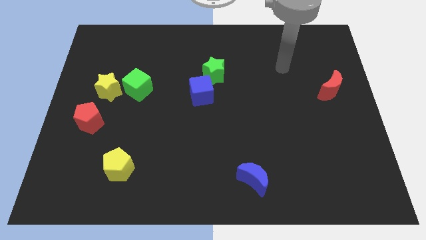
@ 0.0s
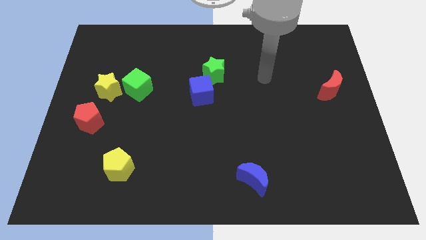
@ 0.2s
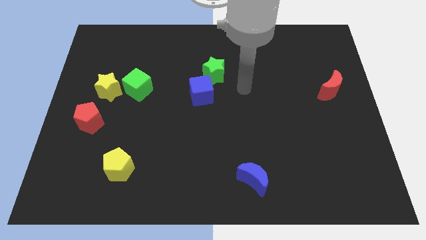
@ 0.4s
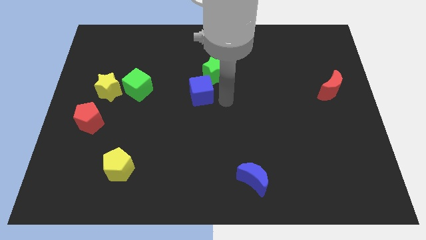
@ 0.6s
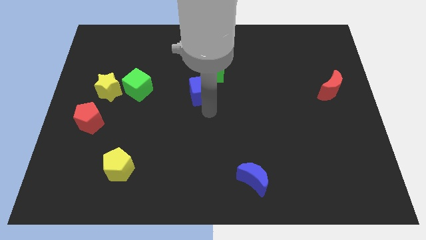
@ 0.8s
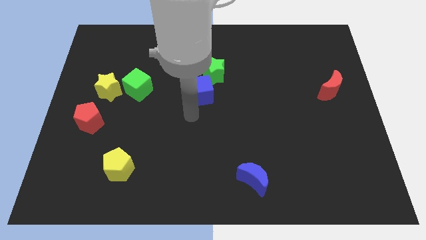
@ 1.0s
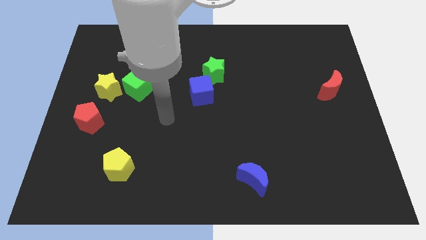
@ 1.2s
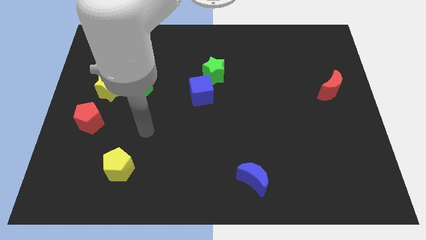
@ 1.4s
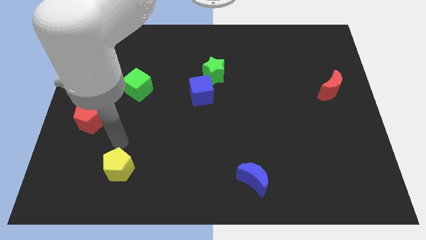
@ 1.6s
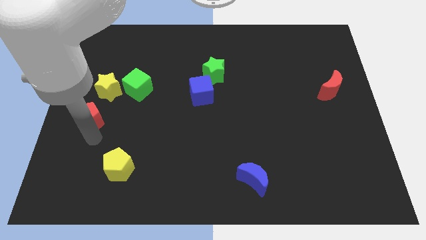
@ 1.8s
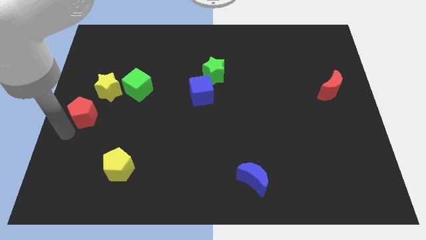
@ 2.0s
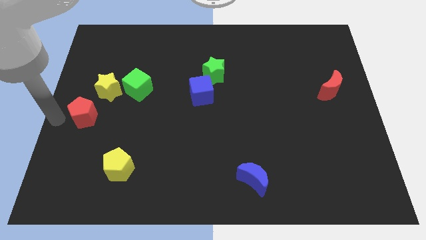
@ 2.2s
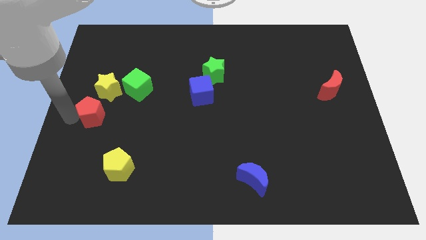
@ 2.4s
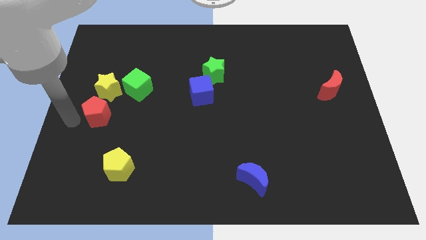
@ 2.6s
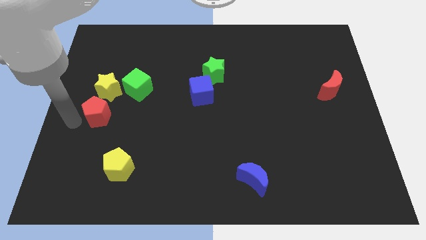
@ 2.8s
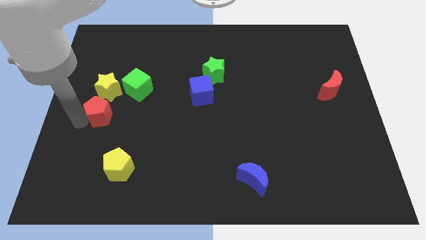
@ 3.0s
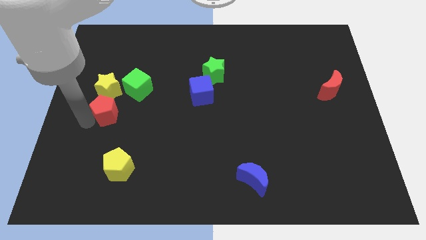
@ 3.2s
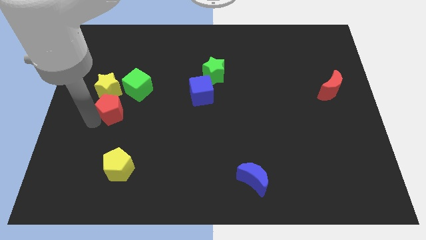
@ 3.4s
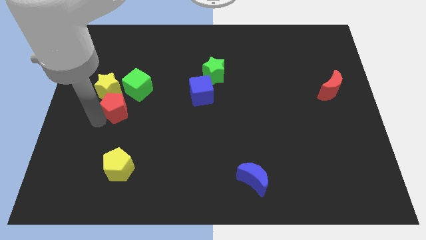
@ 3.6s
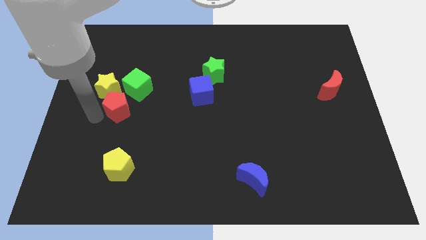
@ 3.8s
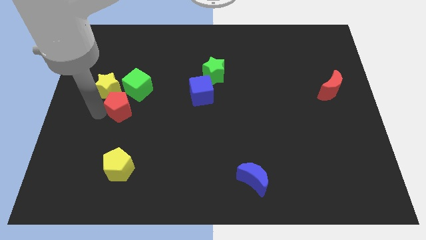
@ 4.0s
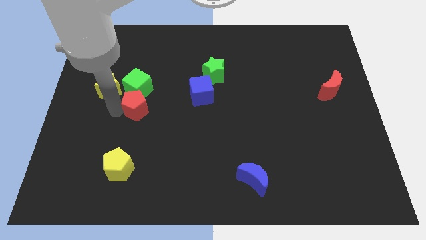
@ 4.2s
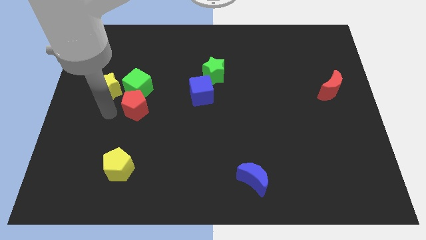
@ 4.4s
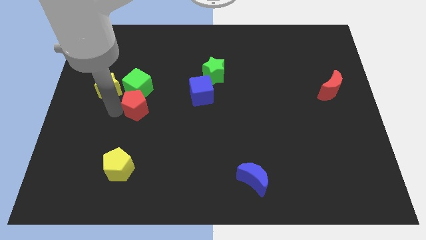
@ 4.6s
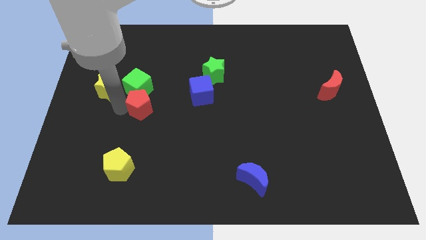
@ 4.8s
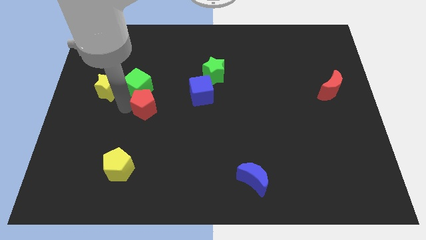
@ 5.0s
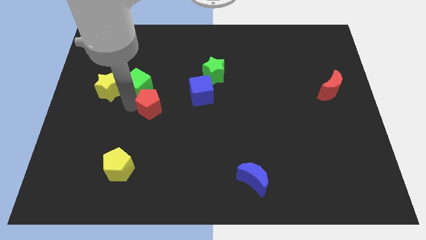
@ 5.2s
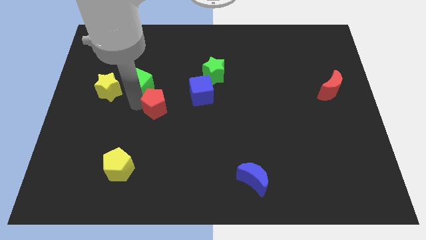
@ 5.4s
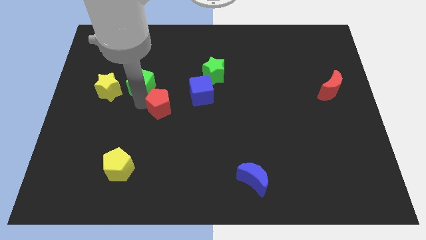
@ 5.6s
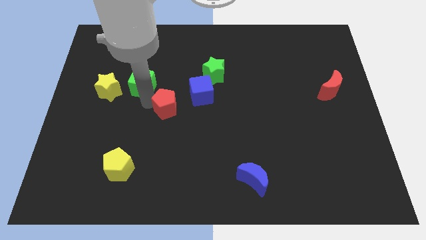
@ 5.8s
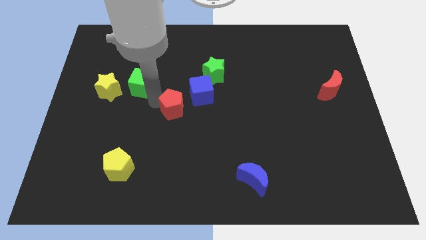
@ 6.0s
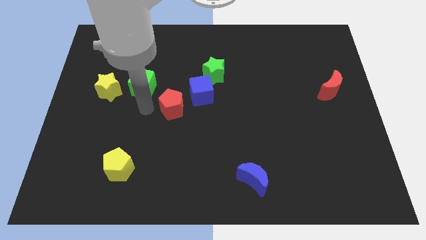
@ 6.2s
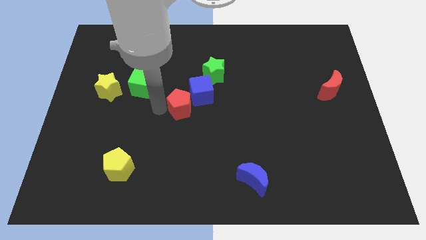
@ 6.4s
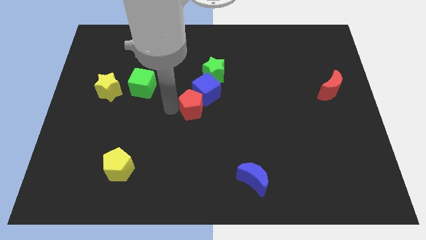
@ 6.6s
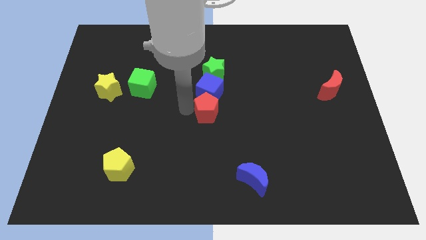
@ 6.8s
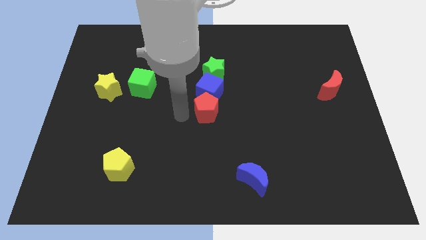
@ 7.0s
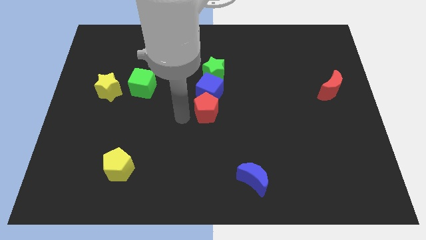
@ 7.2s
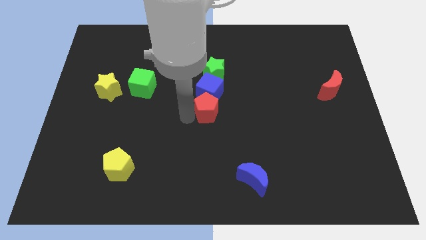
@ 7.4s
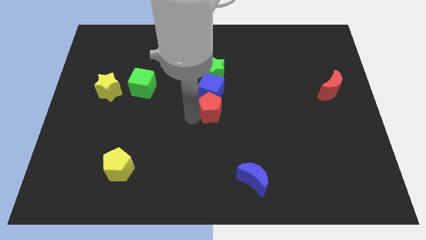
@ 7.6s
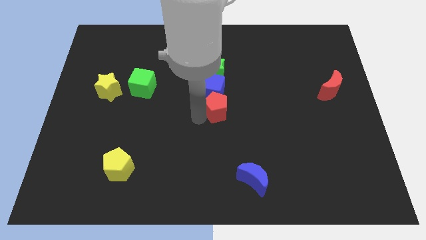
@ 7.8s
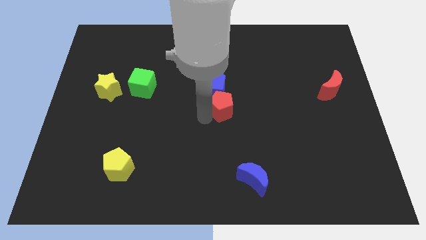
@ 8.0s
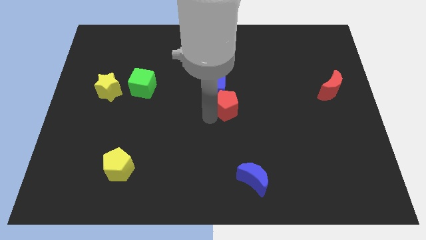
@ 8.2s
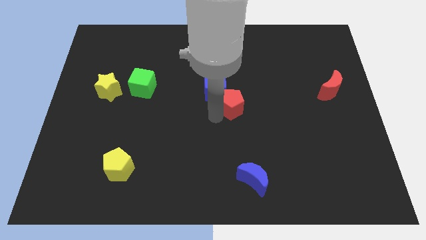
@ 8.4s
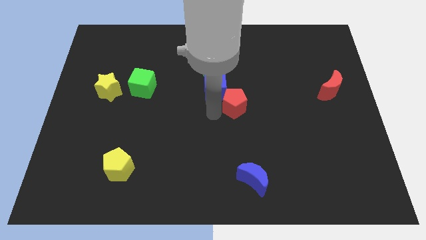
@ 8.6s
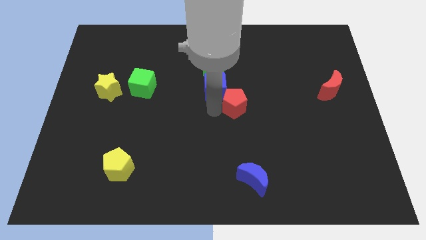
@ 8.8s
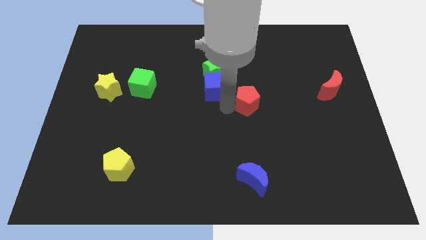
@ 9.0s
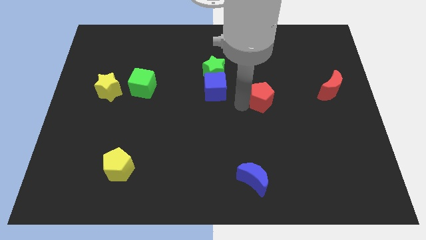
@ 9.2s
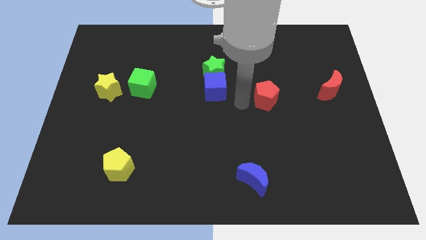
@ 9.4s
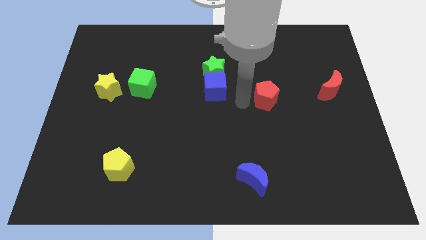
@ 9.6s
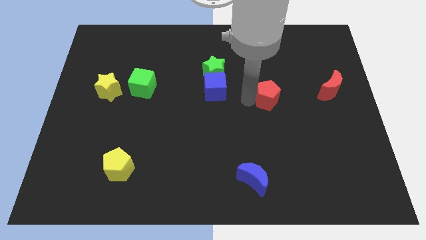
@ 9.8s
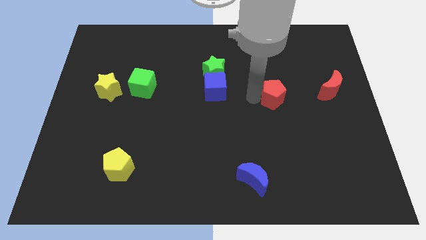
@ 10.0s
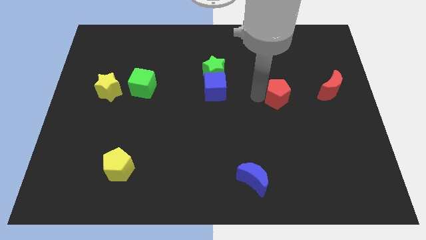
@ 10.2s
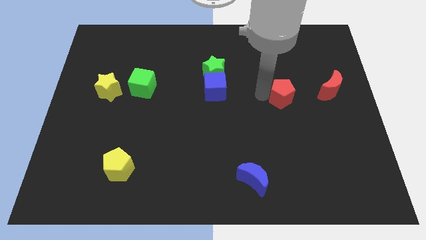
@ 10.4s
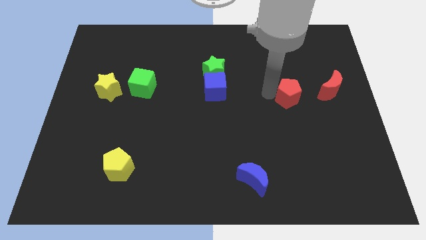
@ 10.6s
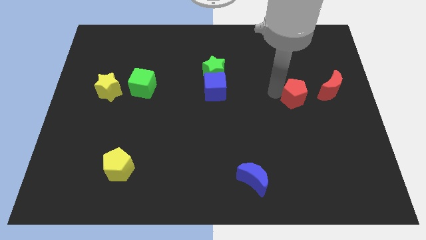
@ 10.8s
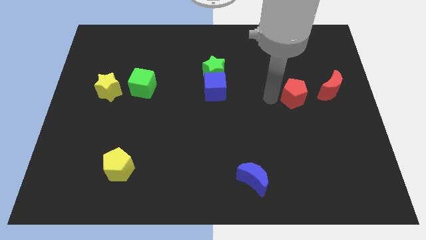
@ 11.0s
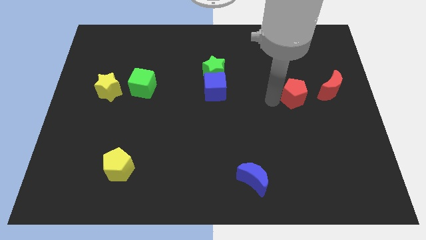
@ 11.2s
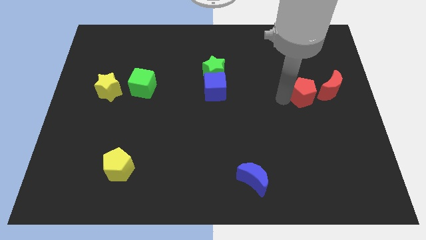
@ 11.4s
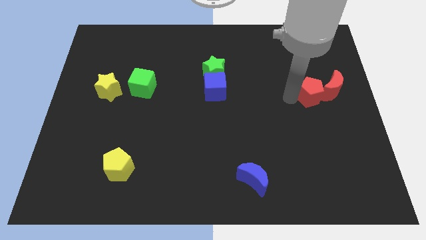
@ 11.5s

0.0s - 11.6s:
put the red pentagon towards the red moon

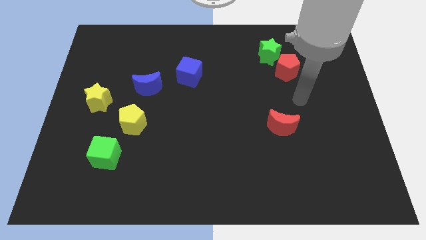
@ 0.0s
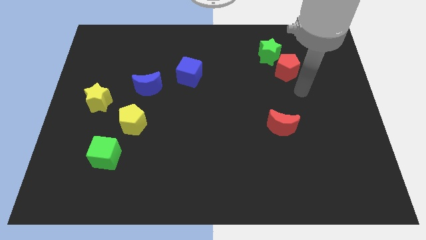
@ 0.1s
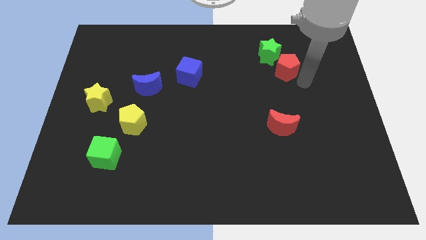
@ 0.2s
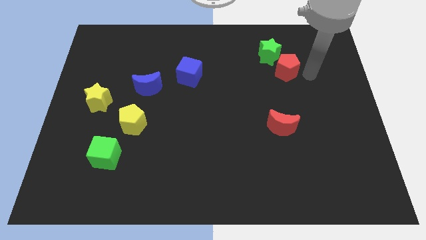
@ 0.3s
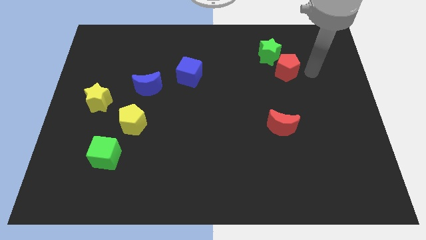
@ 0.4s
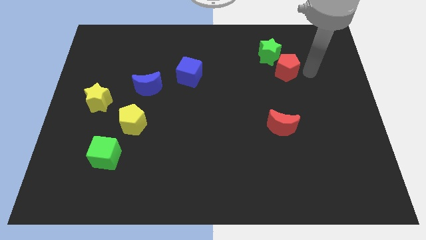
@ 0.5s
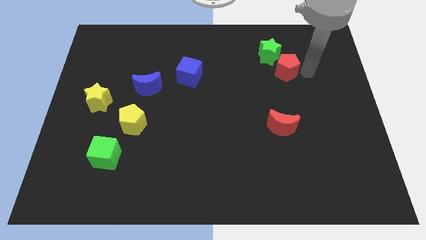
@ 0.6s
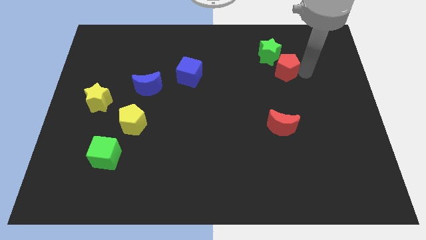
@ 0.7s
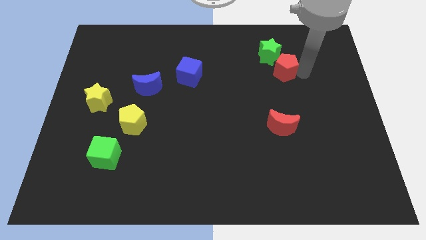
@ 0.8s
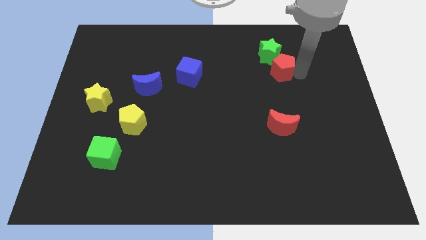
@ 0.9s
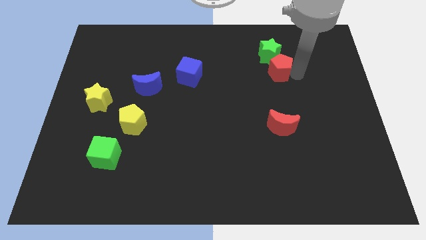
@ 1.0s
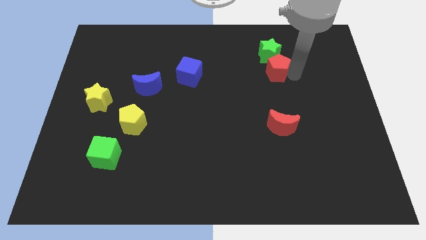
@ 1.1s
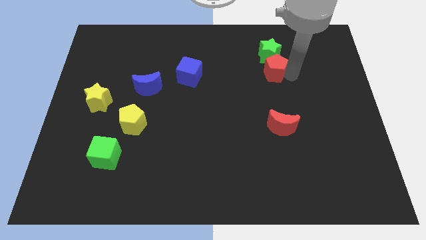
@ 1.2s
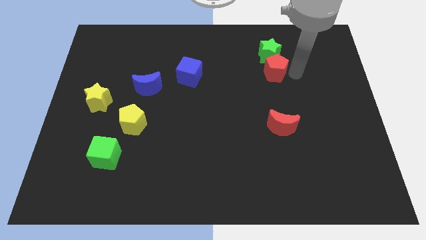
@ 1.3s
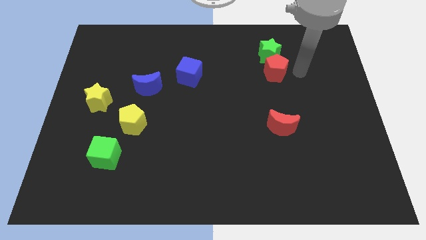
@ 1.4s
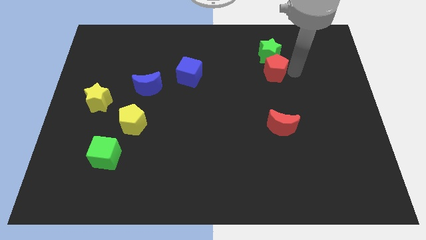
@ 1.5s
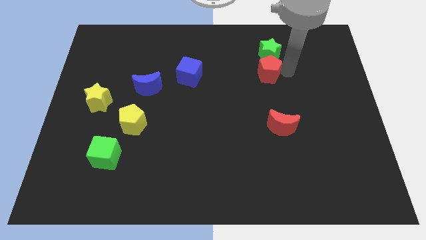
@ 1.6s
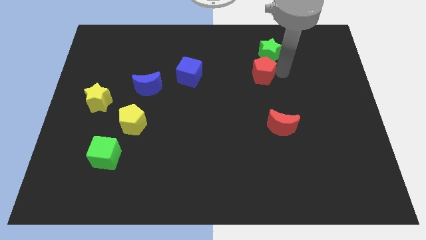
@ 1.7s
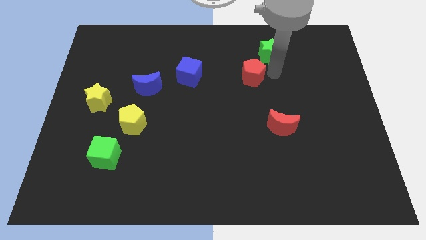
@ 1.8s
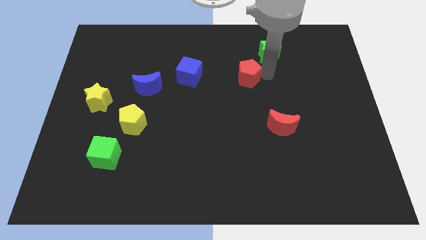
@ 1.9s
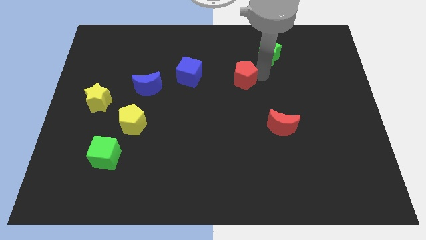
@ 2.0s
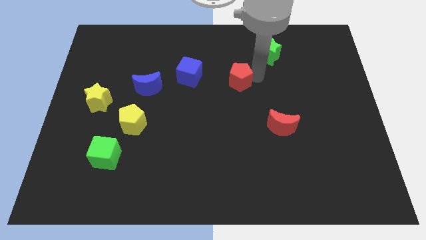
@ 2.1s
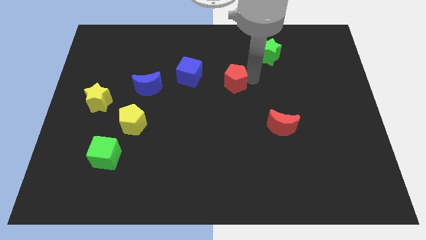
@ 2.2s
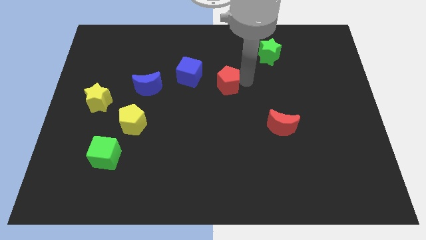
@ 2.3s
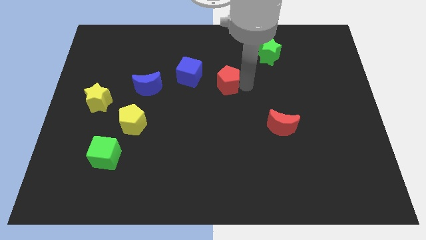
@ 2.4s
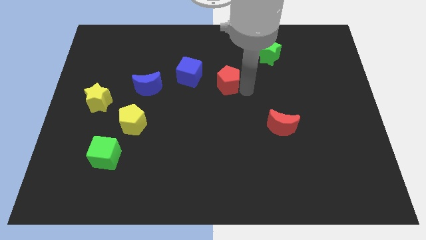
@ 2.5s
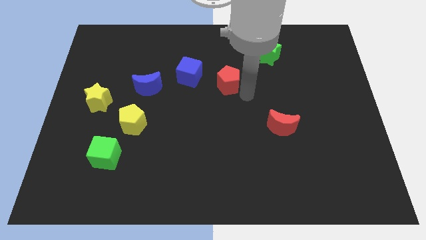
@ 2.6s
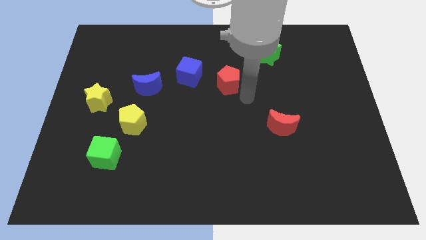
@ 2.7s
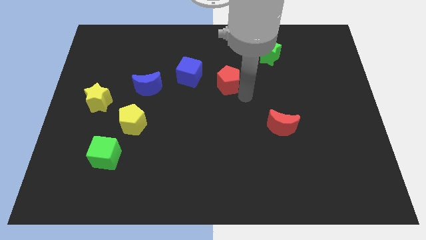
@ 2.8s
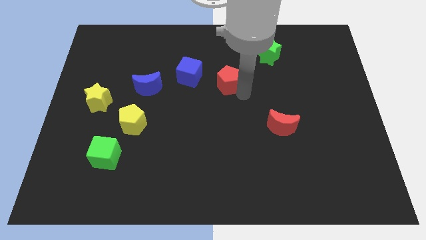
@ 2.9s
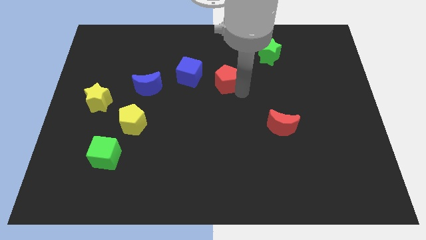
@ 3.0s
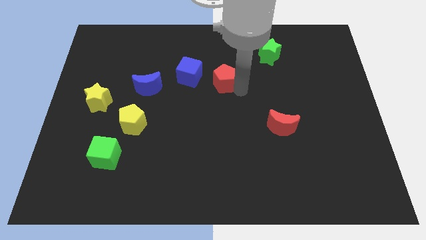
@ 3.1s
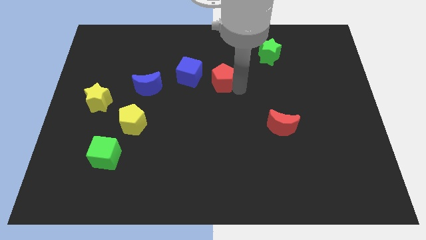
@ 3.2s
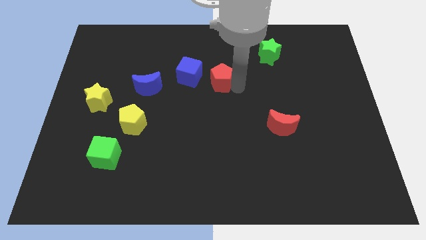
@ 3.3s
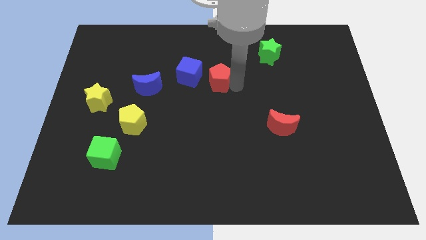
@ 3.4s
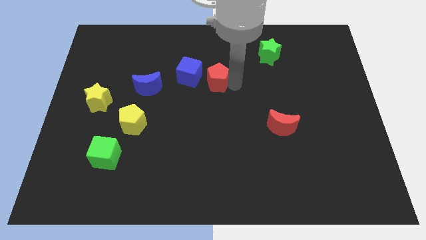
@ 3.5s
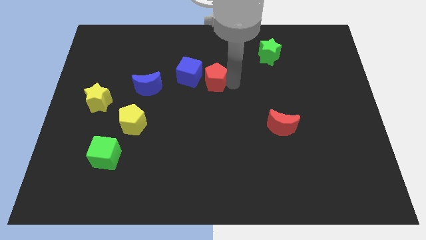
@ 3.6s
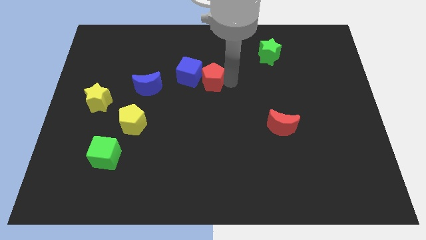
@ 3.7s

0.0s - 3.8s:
slide the red pentagon next to the blue cube
